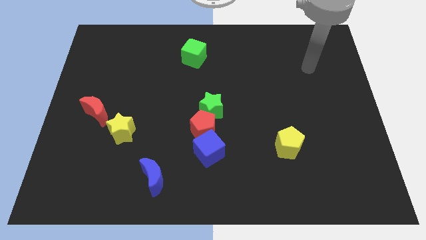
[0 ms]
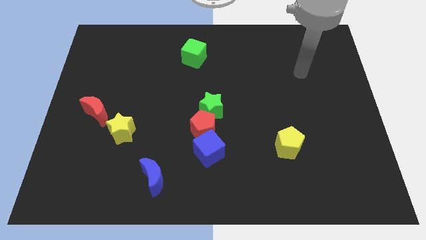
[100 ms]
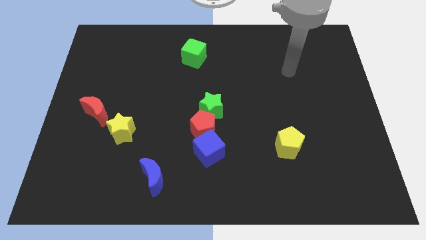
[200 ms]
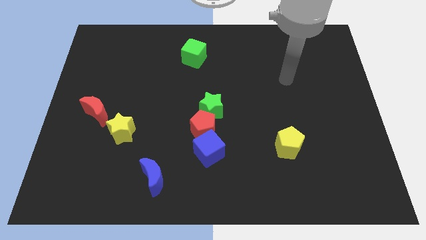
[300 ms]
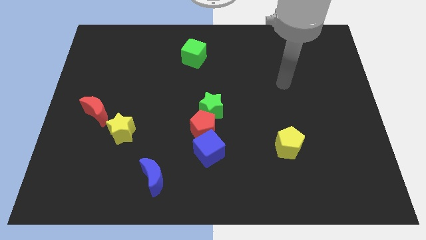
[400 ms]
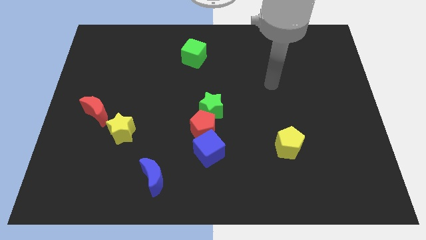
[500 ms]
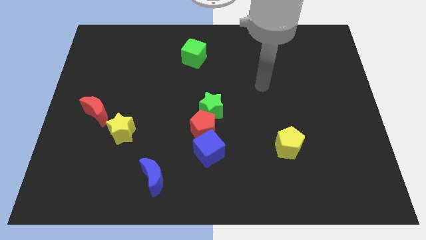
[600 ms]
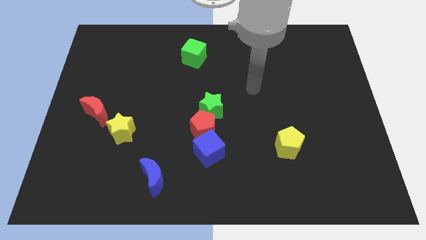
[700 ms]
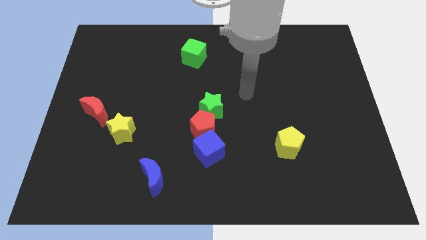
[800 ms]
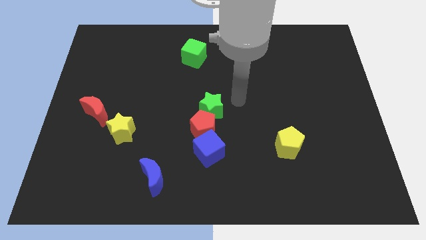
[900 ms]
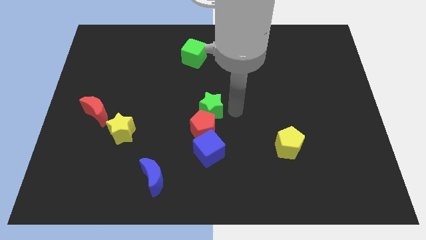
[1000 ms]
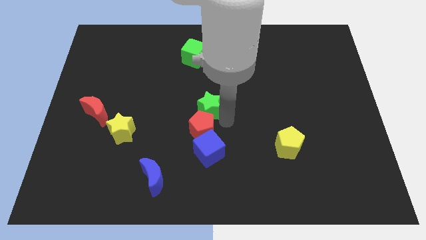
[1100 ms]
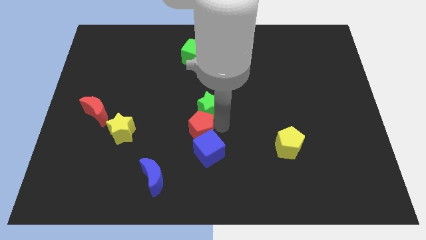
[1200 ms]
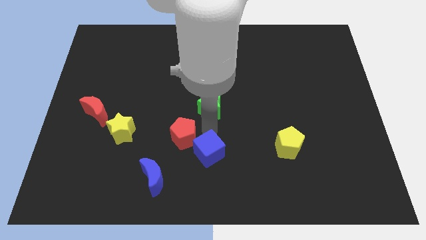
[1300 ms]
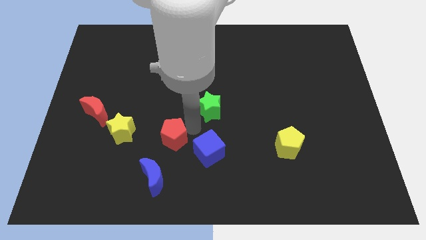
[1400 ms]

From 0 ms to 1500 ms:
separate the green star from the red pentagon

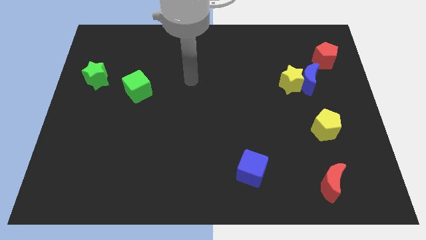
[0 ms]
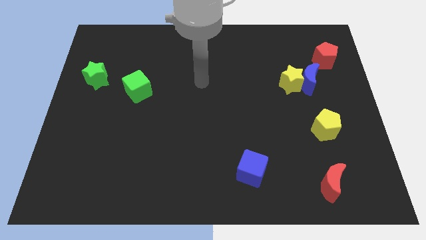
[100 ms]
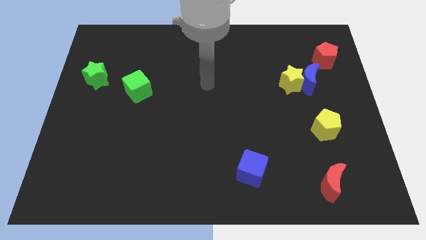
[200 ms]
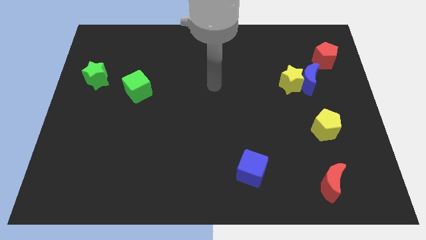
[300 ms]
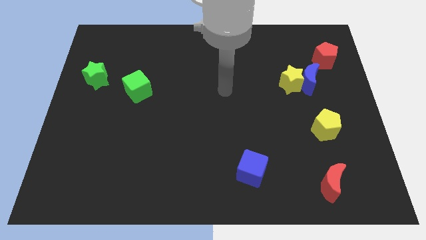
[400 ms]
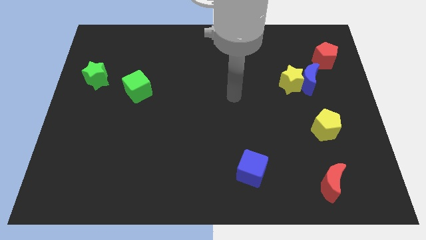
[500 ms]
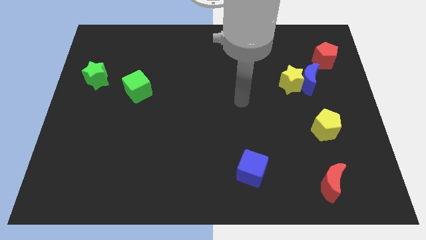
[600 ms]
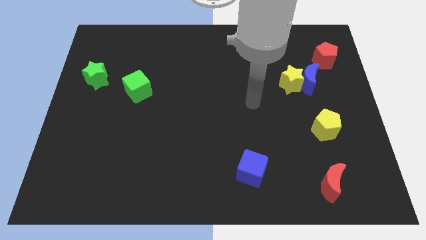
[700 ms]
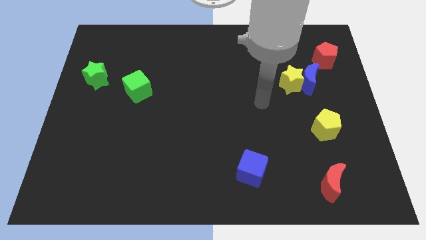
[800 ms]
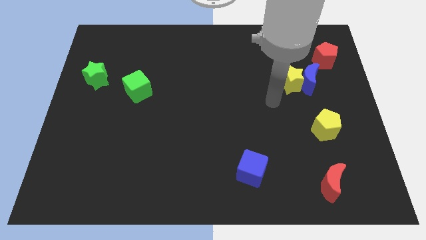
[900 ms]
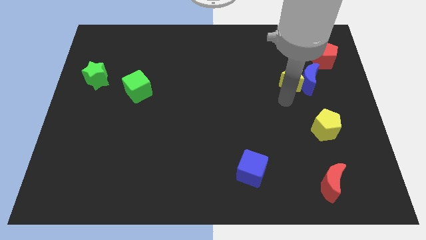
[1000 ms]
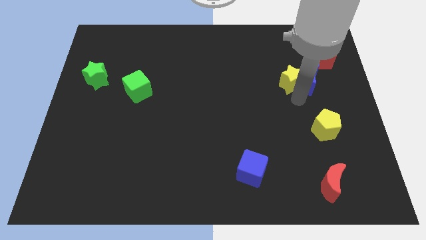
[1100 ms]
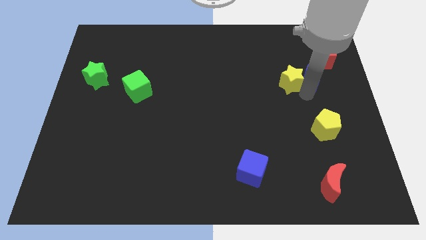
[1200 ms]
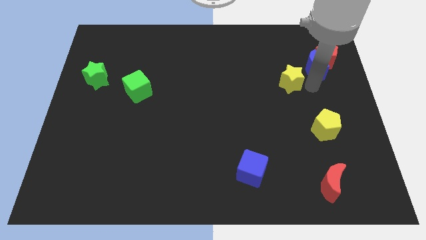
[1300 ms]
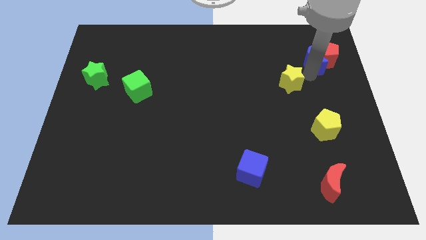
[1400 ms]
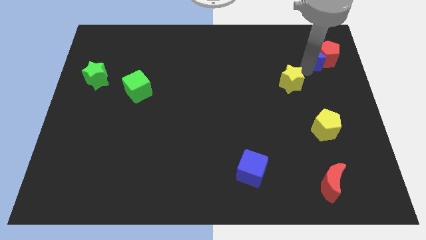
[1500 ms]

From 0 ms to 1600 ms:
pull the yellow star apart from the blue moon

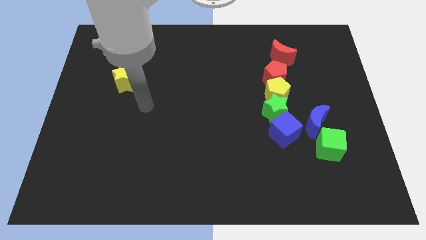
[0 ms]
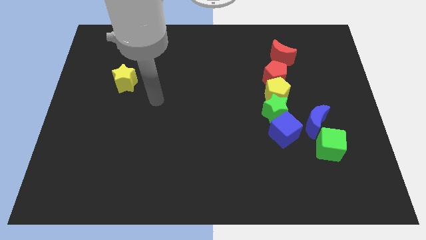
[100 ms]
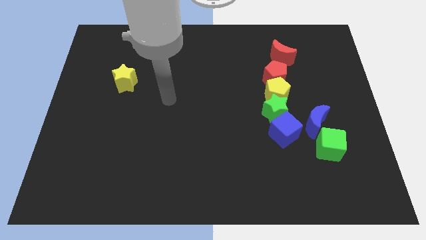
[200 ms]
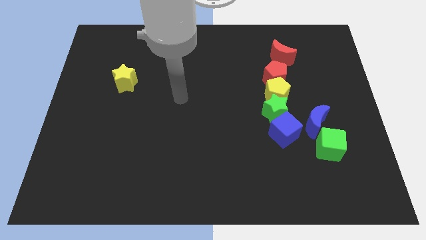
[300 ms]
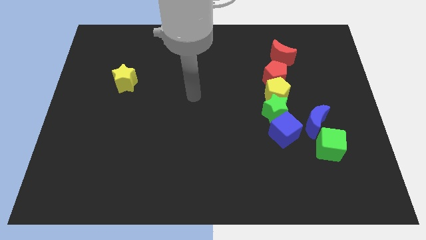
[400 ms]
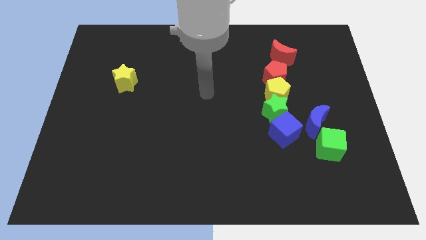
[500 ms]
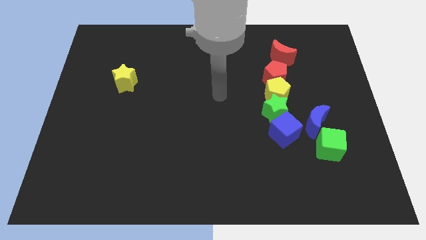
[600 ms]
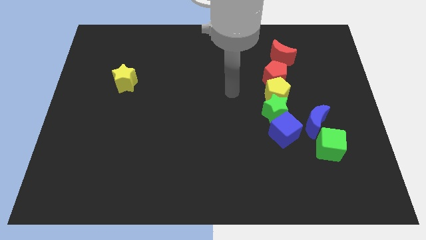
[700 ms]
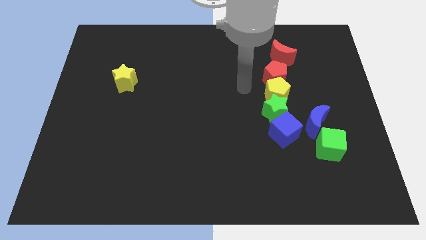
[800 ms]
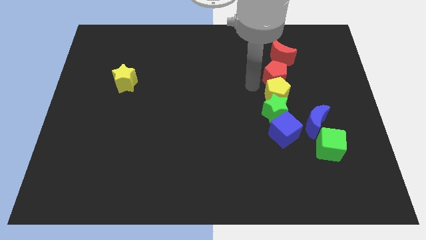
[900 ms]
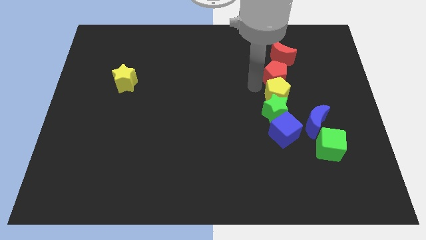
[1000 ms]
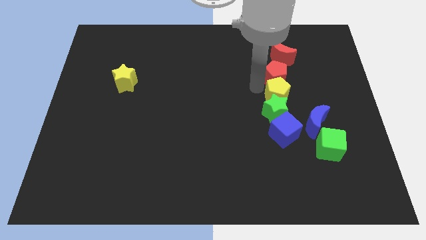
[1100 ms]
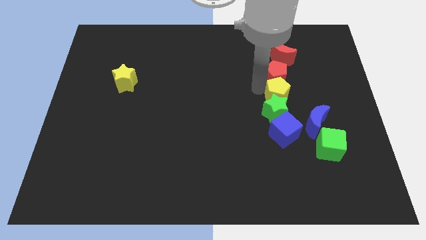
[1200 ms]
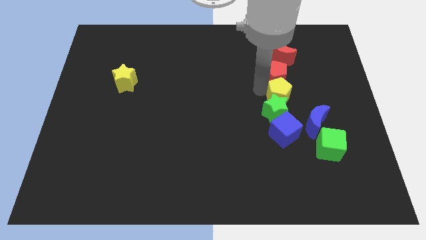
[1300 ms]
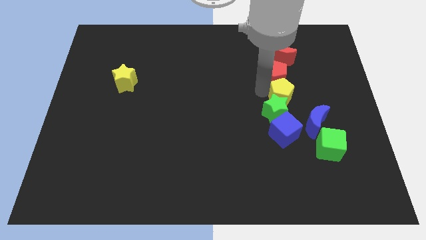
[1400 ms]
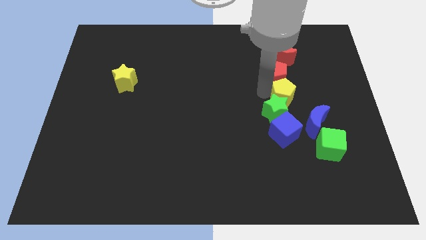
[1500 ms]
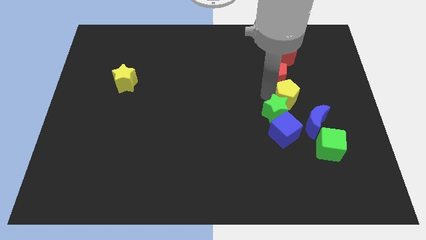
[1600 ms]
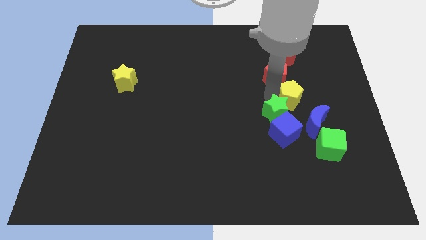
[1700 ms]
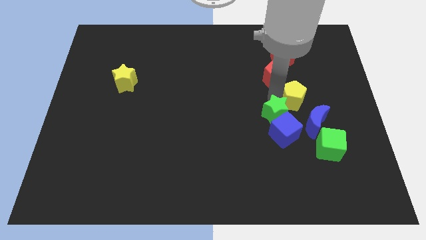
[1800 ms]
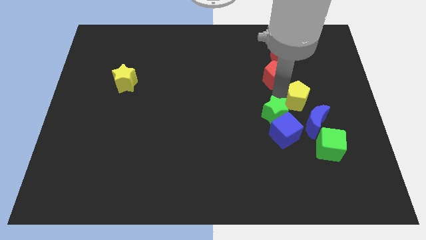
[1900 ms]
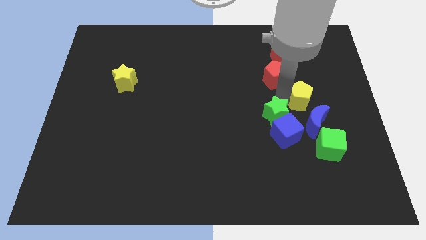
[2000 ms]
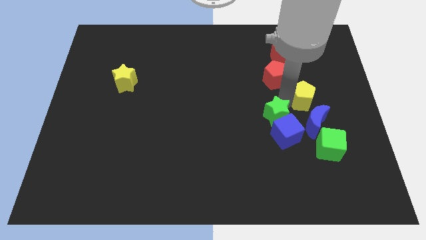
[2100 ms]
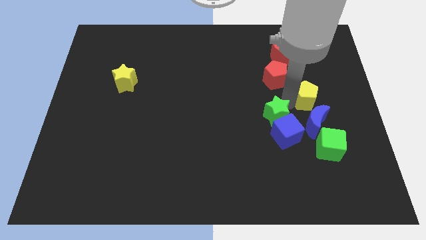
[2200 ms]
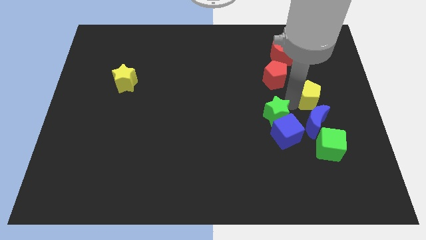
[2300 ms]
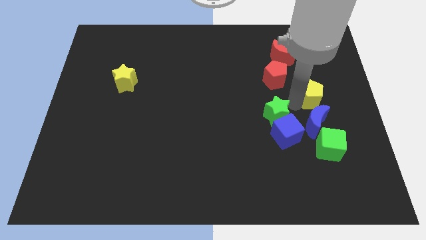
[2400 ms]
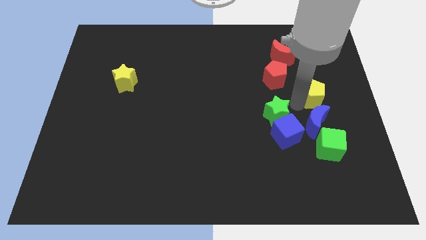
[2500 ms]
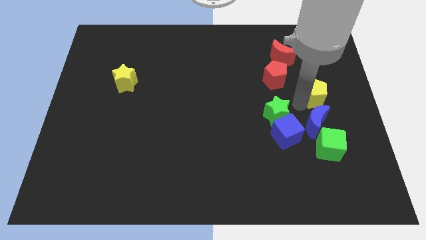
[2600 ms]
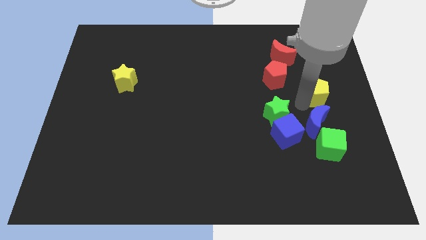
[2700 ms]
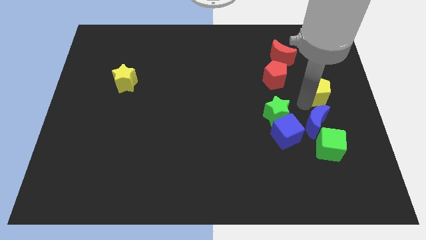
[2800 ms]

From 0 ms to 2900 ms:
move the yellow pentagon away from the green star and red pentagon

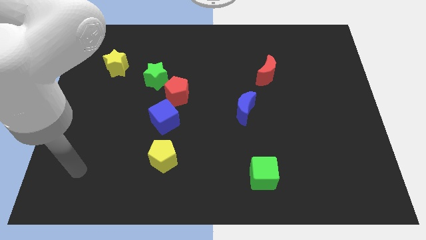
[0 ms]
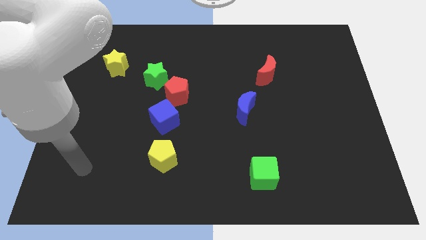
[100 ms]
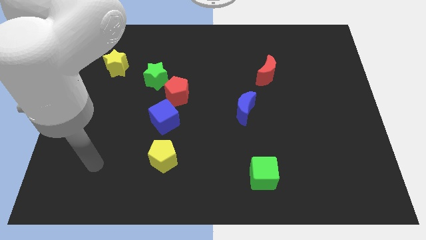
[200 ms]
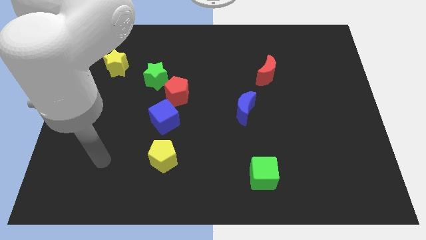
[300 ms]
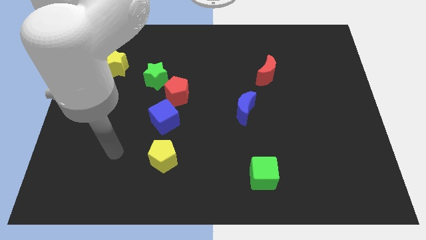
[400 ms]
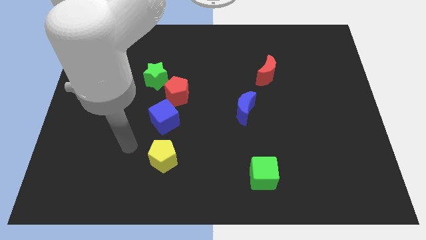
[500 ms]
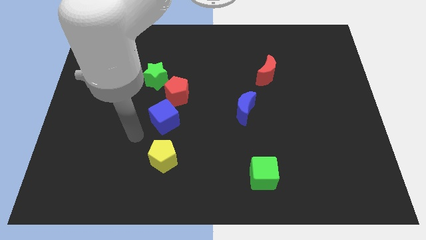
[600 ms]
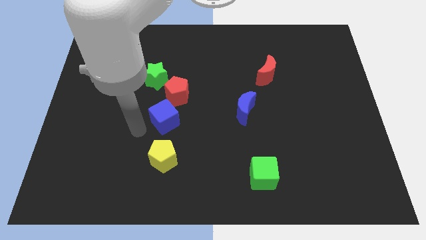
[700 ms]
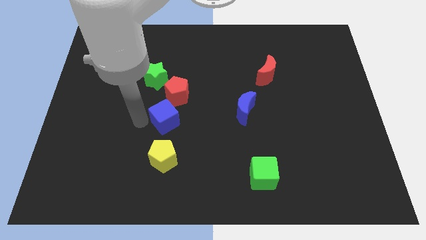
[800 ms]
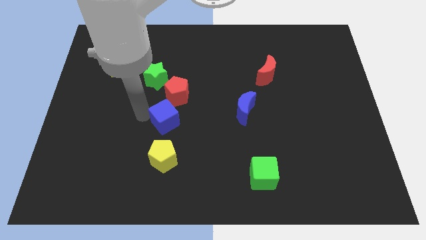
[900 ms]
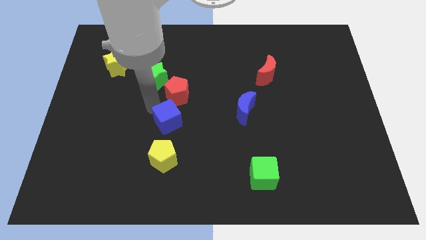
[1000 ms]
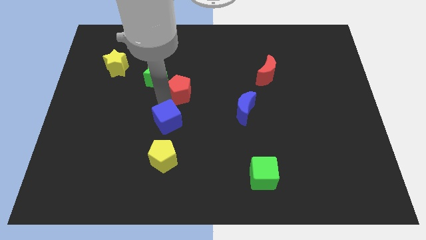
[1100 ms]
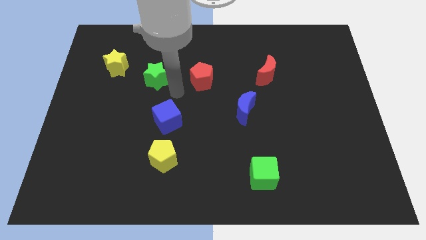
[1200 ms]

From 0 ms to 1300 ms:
move the green star away from the red pentagon

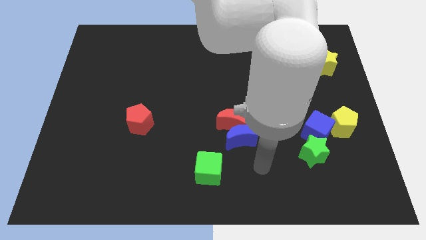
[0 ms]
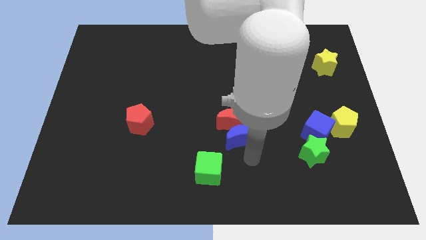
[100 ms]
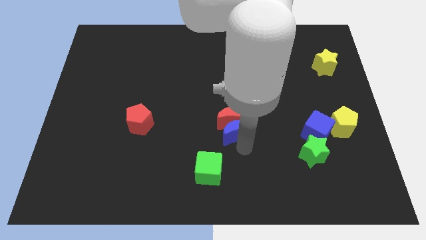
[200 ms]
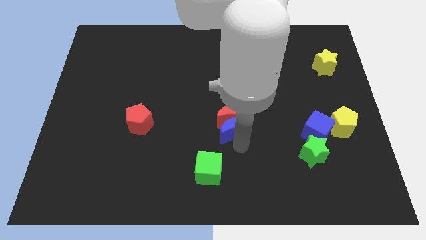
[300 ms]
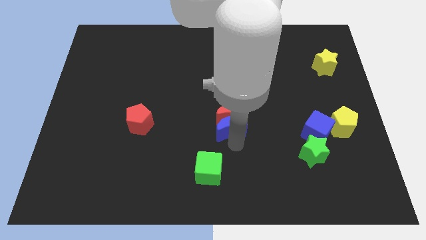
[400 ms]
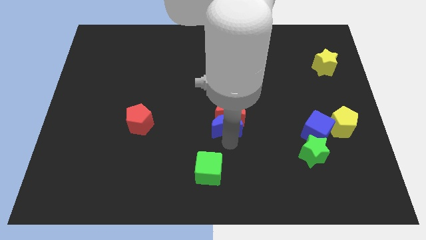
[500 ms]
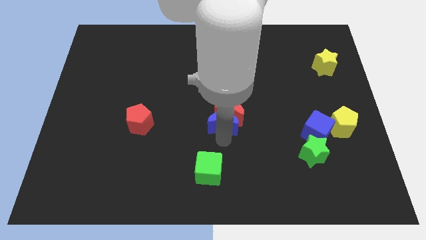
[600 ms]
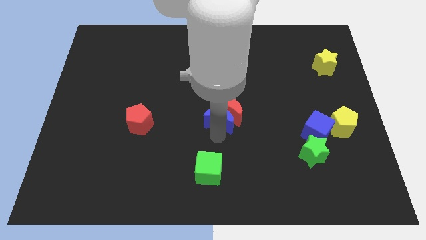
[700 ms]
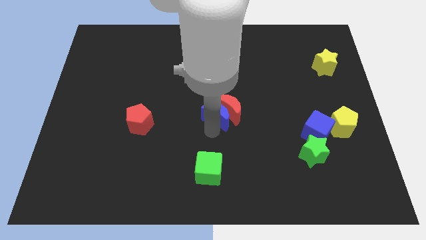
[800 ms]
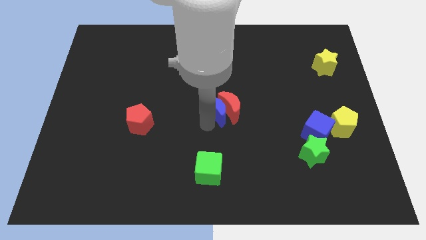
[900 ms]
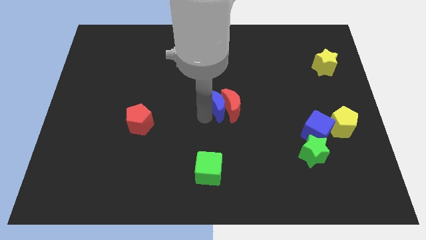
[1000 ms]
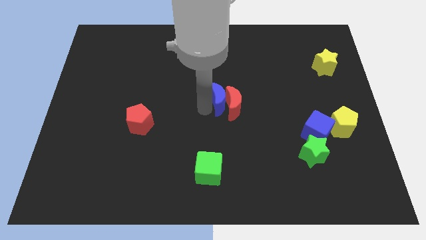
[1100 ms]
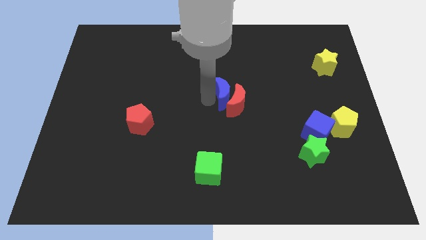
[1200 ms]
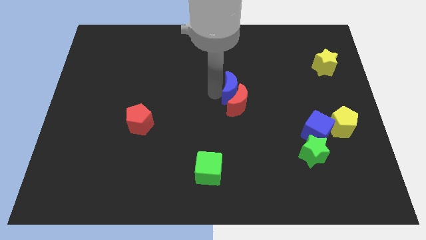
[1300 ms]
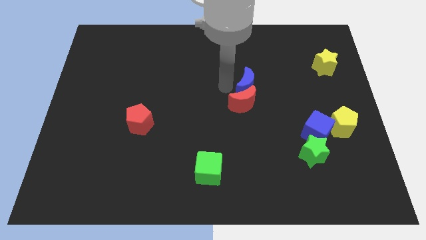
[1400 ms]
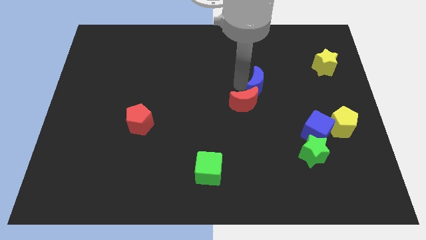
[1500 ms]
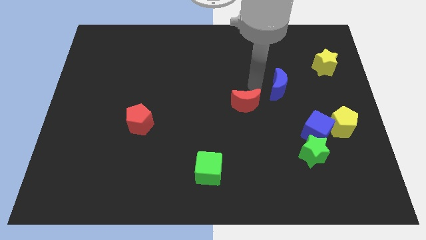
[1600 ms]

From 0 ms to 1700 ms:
pull the red moon apart from the blue moon

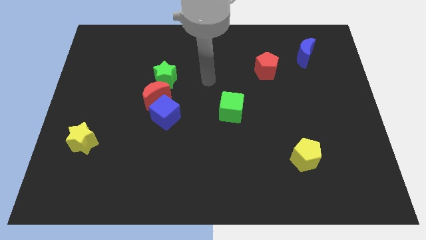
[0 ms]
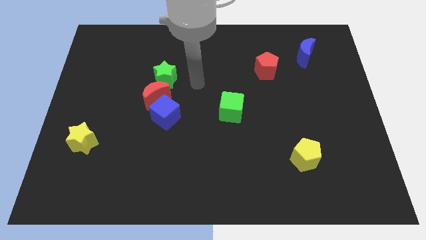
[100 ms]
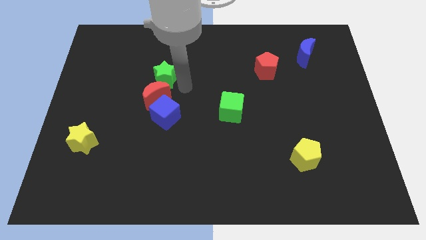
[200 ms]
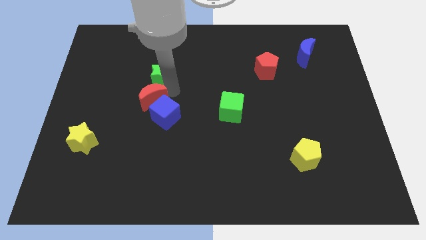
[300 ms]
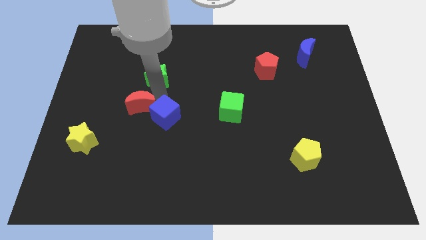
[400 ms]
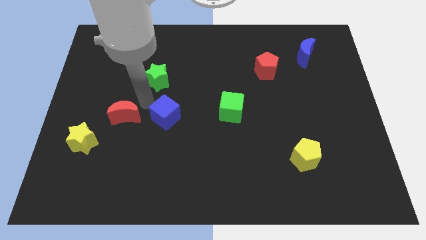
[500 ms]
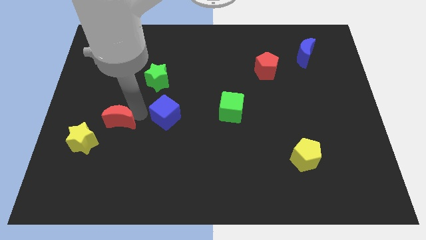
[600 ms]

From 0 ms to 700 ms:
move the blue cube away from the red moon
